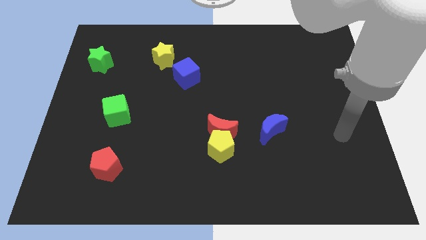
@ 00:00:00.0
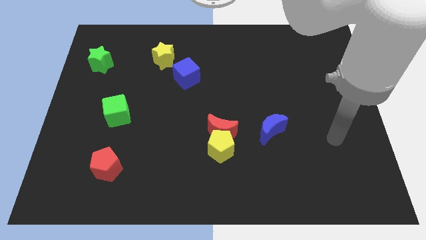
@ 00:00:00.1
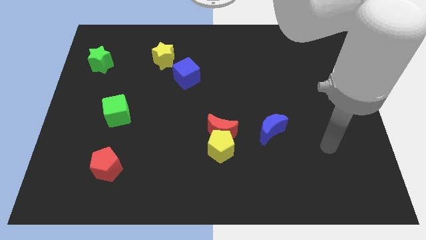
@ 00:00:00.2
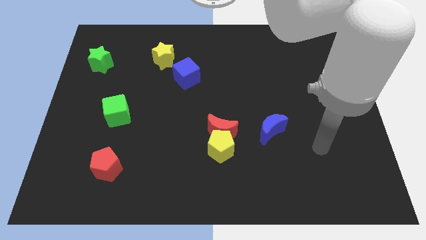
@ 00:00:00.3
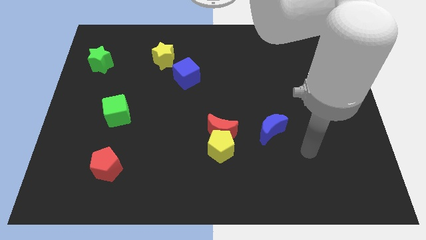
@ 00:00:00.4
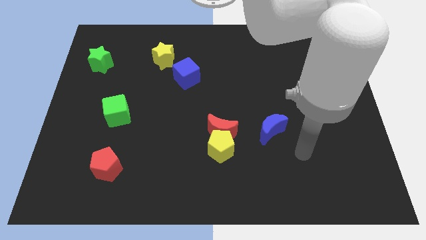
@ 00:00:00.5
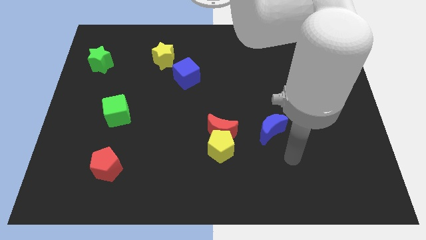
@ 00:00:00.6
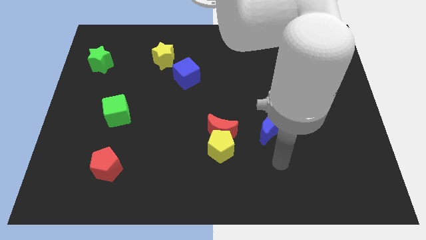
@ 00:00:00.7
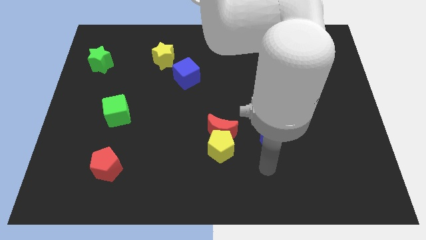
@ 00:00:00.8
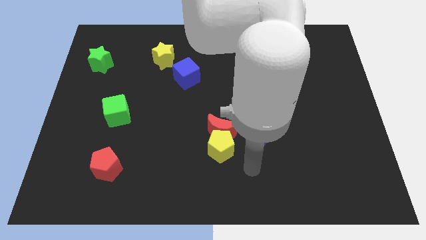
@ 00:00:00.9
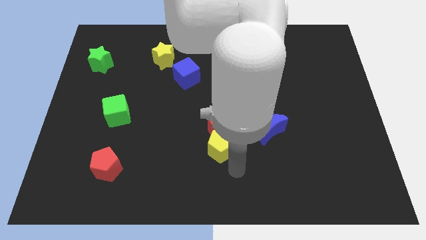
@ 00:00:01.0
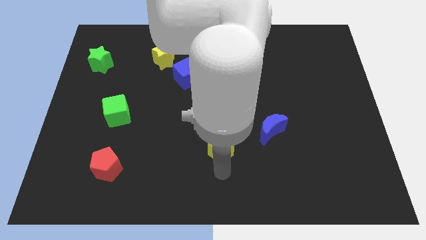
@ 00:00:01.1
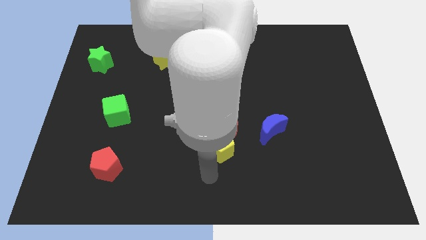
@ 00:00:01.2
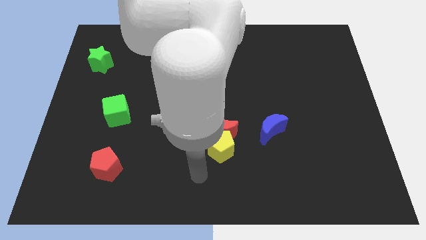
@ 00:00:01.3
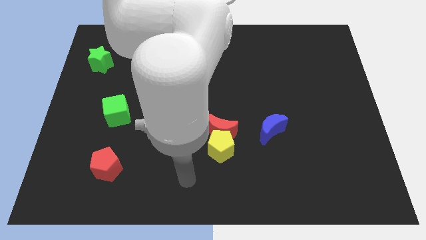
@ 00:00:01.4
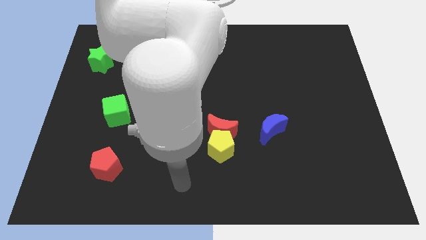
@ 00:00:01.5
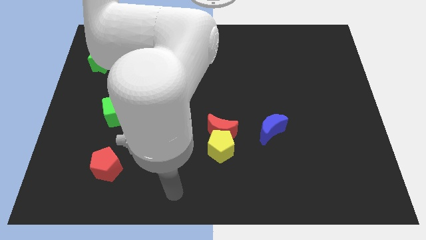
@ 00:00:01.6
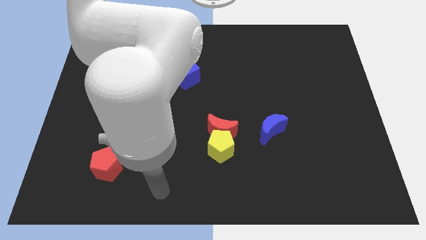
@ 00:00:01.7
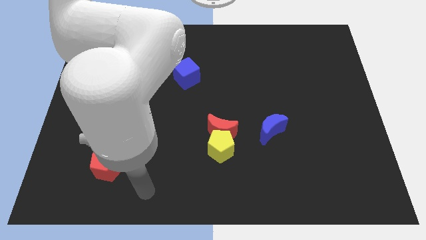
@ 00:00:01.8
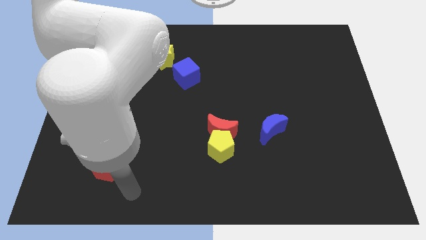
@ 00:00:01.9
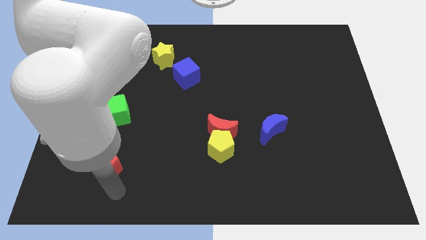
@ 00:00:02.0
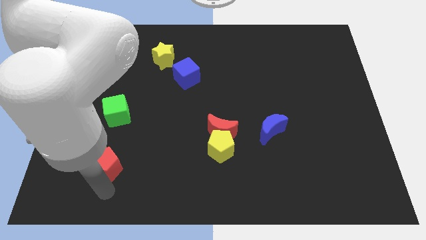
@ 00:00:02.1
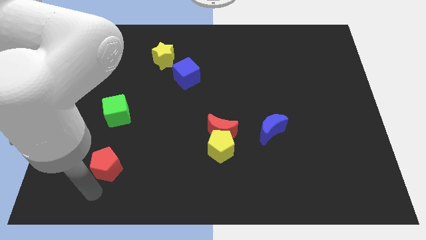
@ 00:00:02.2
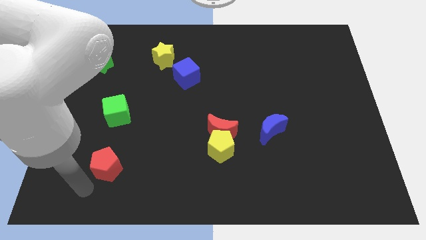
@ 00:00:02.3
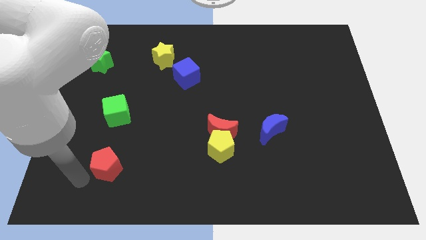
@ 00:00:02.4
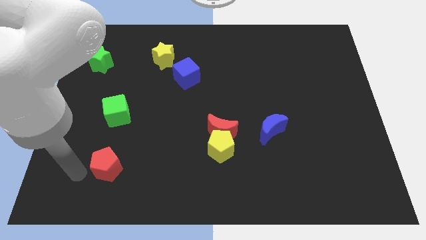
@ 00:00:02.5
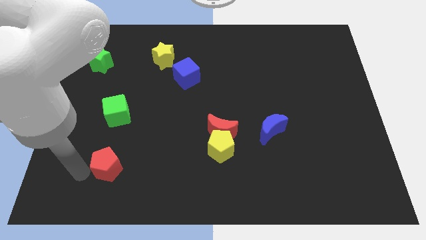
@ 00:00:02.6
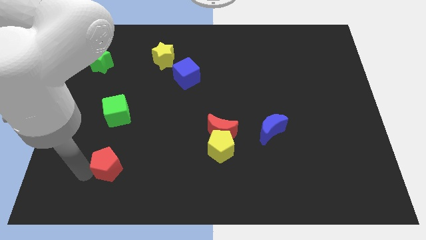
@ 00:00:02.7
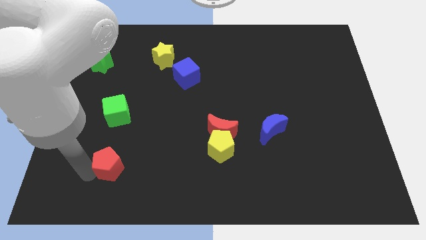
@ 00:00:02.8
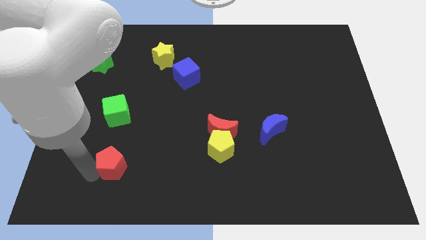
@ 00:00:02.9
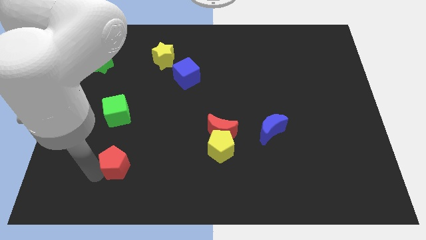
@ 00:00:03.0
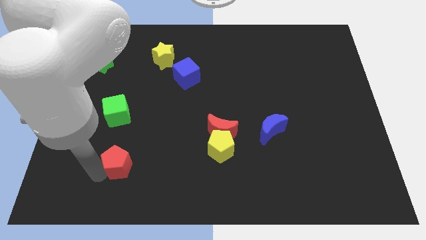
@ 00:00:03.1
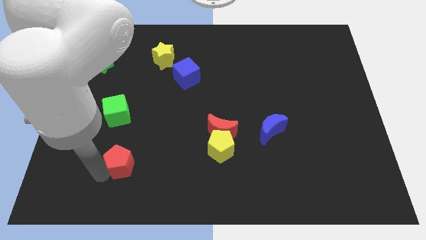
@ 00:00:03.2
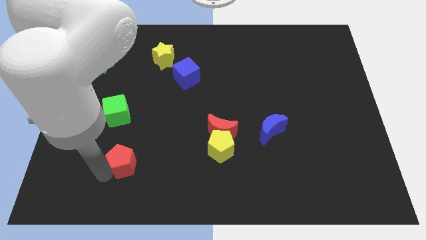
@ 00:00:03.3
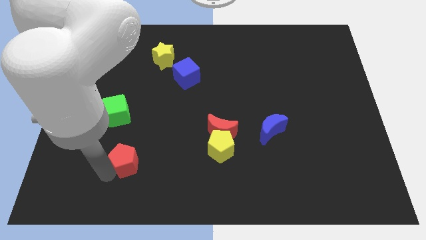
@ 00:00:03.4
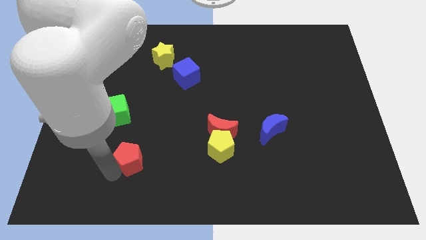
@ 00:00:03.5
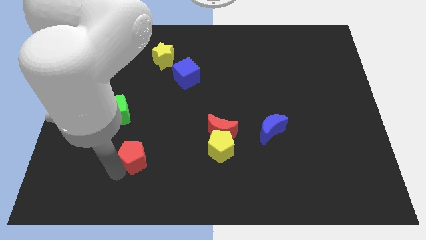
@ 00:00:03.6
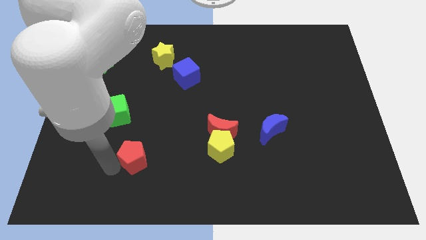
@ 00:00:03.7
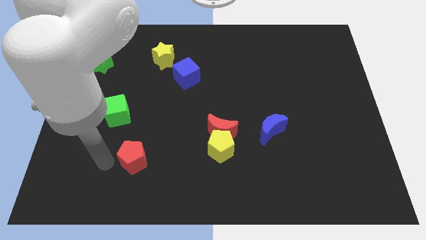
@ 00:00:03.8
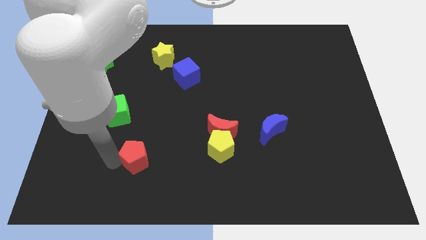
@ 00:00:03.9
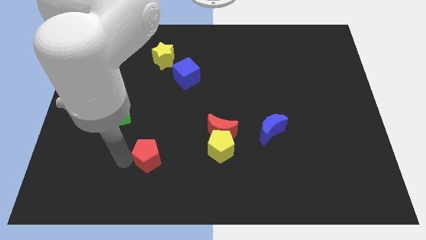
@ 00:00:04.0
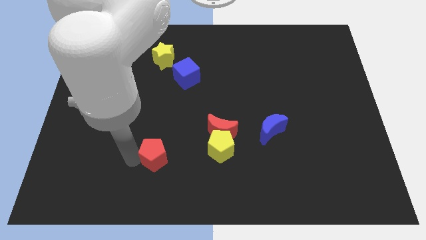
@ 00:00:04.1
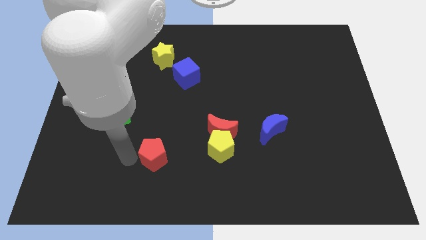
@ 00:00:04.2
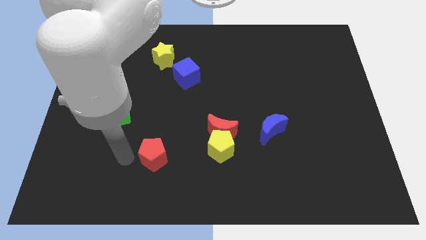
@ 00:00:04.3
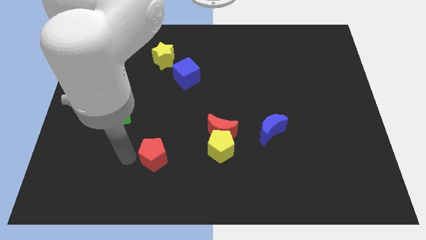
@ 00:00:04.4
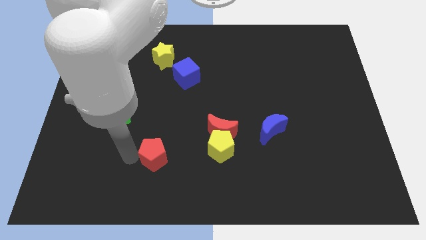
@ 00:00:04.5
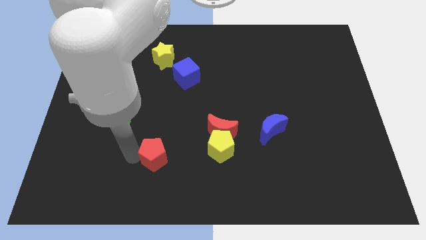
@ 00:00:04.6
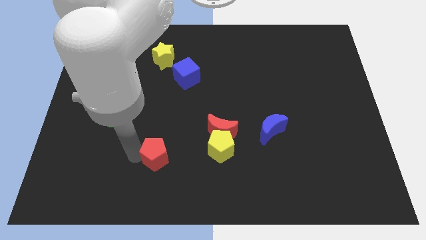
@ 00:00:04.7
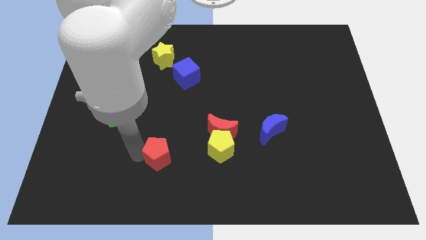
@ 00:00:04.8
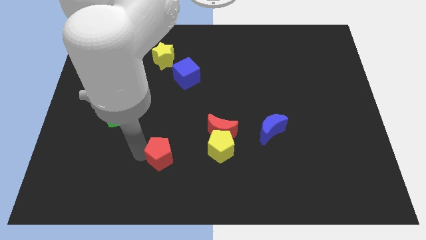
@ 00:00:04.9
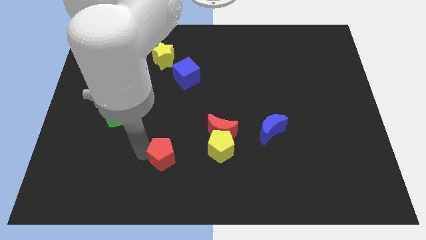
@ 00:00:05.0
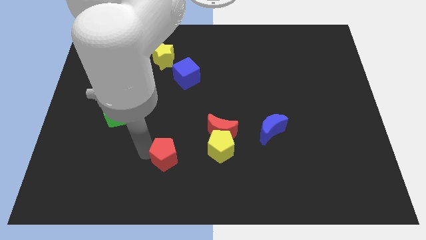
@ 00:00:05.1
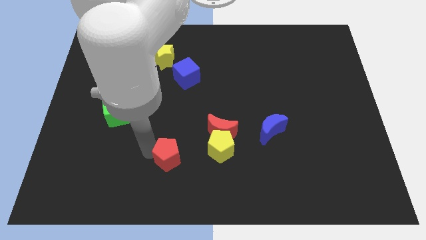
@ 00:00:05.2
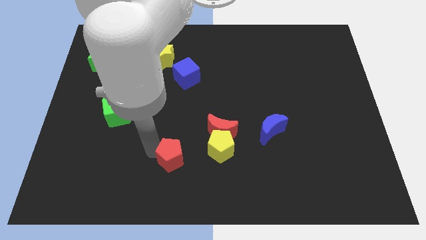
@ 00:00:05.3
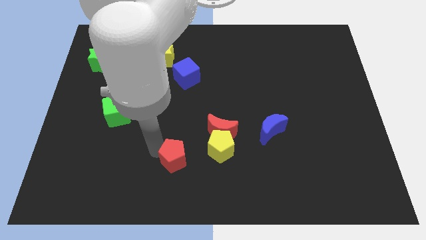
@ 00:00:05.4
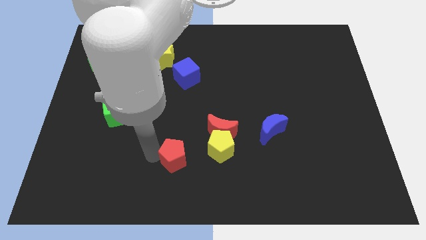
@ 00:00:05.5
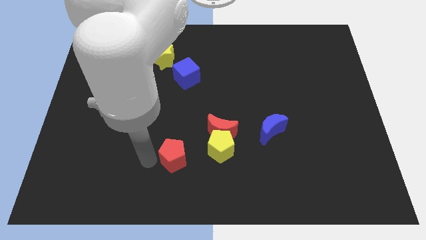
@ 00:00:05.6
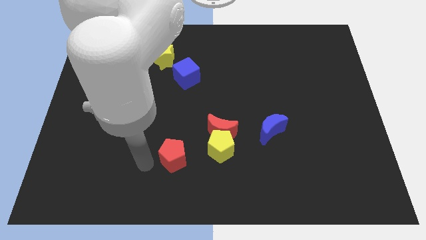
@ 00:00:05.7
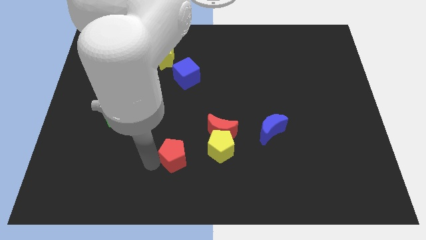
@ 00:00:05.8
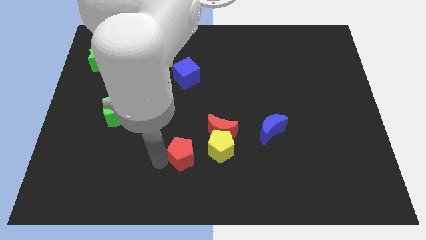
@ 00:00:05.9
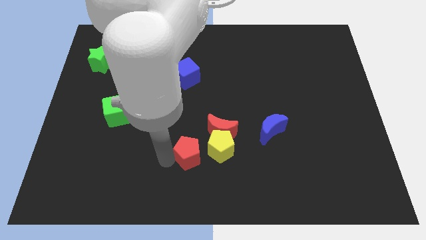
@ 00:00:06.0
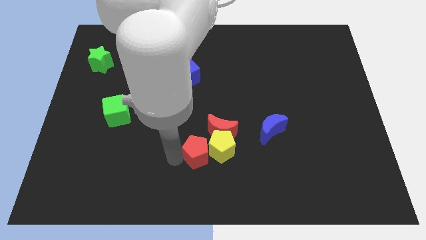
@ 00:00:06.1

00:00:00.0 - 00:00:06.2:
push the red pentagon towards the yellow pentagon

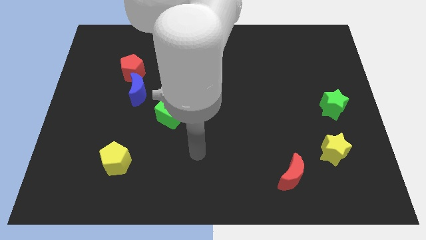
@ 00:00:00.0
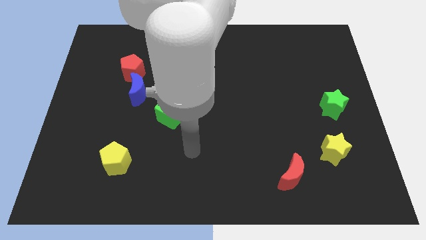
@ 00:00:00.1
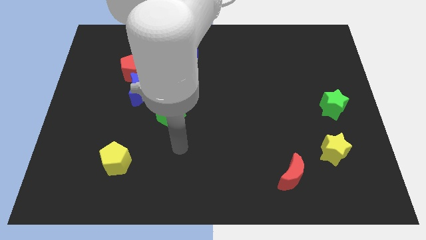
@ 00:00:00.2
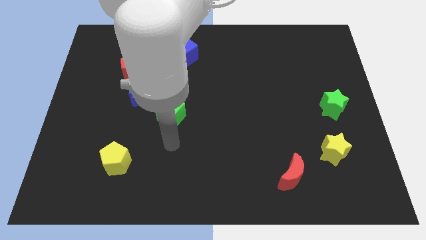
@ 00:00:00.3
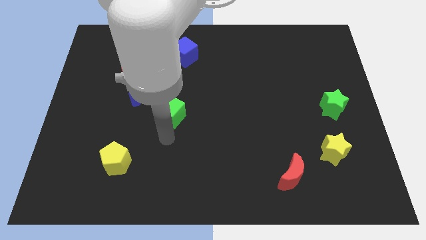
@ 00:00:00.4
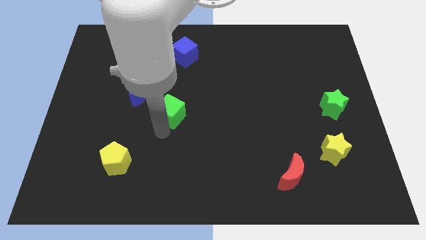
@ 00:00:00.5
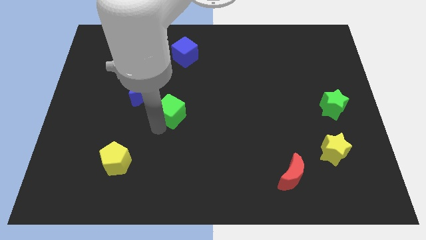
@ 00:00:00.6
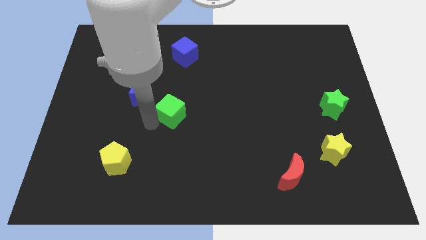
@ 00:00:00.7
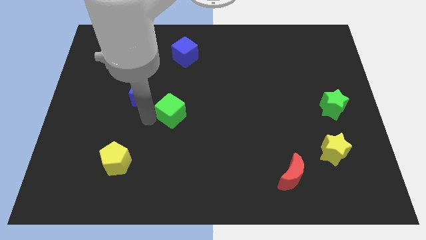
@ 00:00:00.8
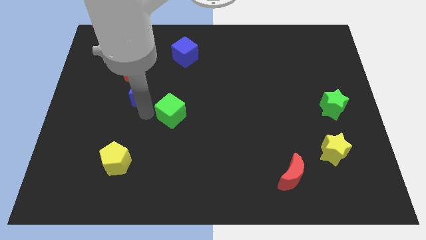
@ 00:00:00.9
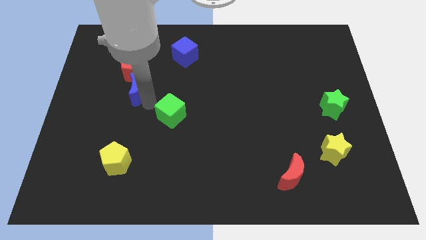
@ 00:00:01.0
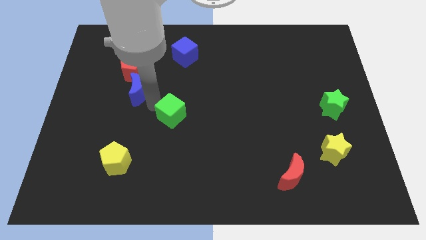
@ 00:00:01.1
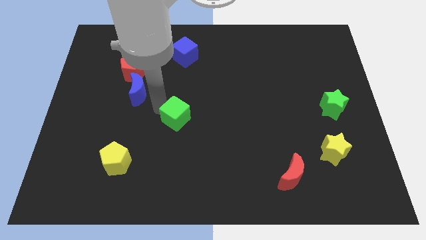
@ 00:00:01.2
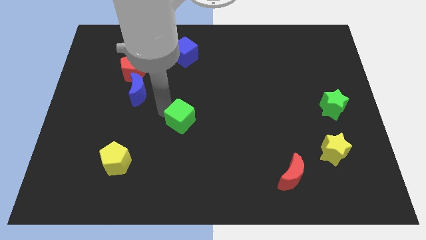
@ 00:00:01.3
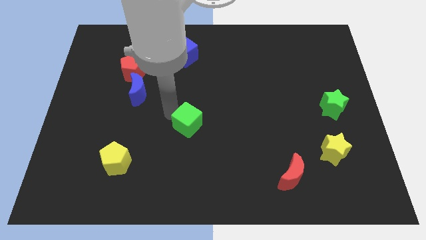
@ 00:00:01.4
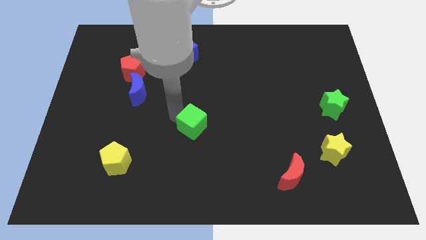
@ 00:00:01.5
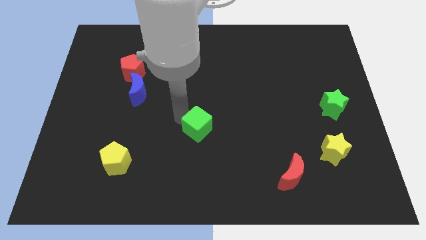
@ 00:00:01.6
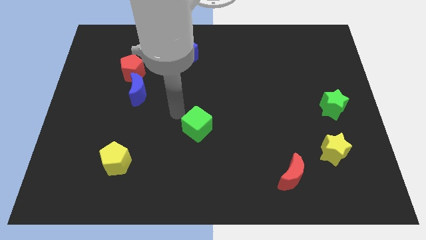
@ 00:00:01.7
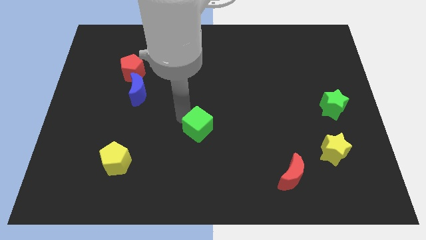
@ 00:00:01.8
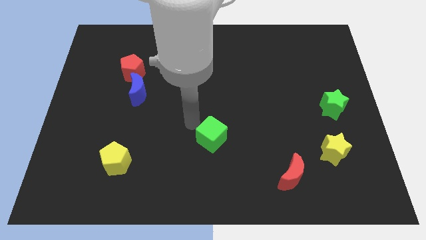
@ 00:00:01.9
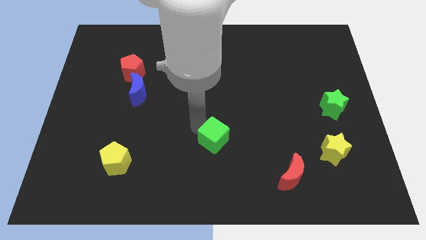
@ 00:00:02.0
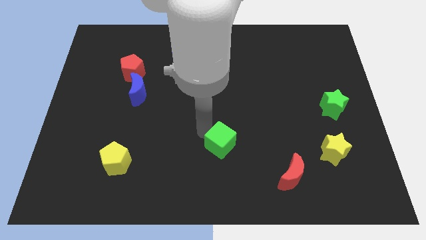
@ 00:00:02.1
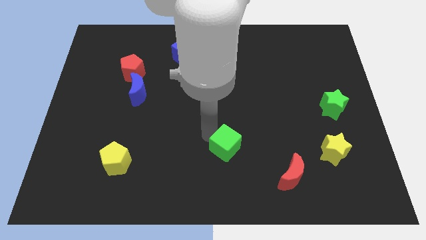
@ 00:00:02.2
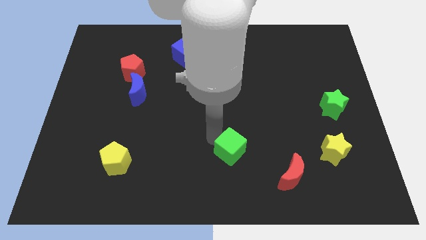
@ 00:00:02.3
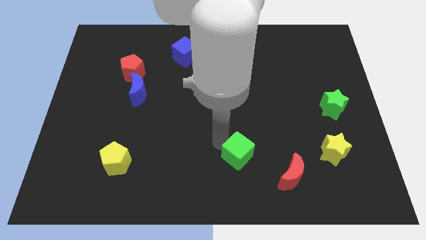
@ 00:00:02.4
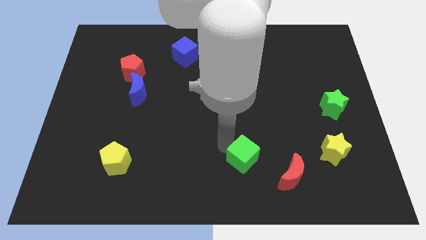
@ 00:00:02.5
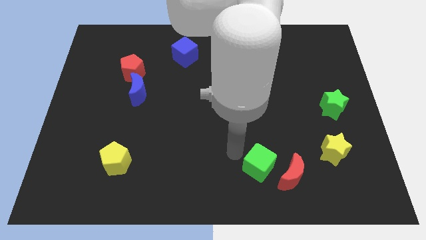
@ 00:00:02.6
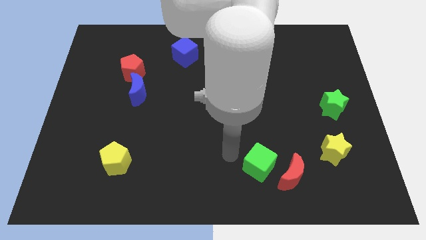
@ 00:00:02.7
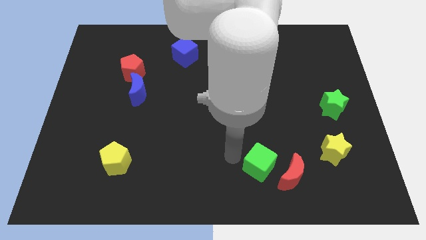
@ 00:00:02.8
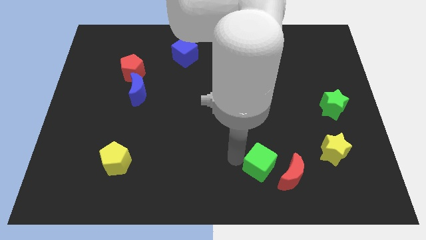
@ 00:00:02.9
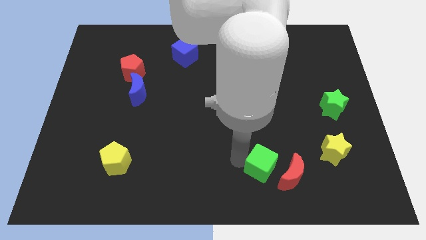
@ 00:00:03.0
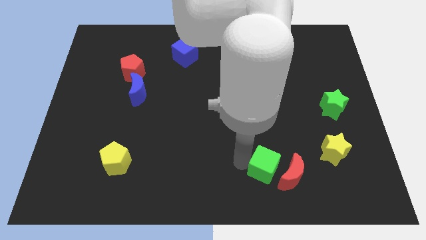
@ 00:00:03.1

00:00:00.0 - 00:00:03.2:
slide the green cube to the red moon
